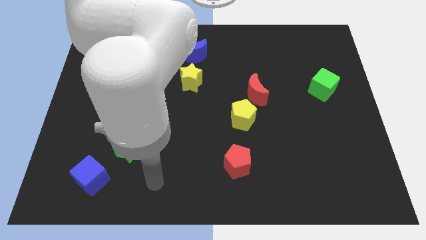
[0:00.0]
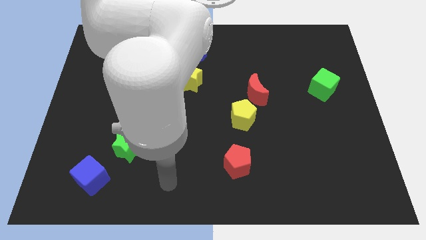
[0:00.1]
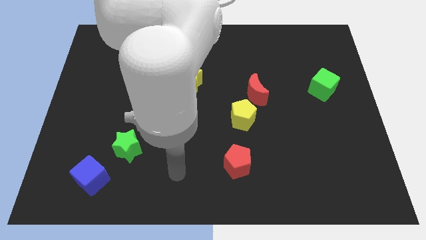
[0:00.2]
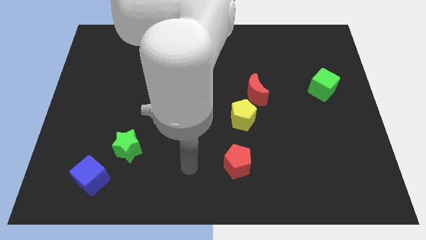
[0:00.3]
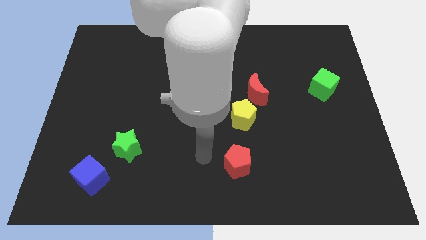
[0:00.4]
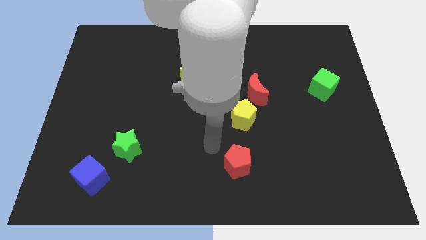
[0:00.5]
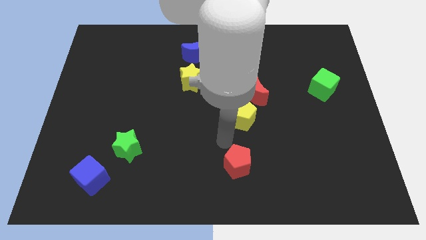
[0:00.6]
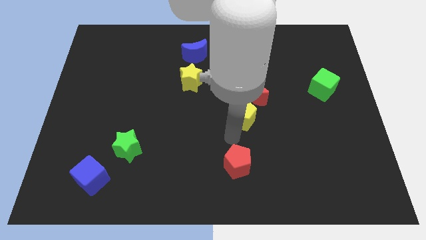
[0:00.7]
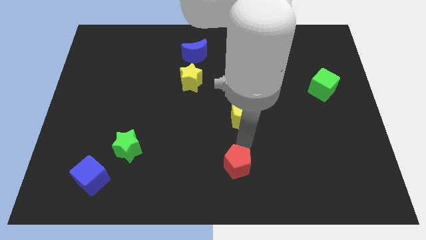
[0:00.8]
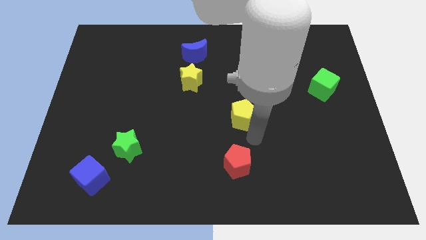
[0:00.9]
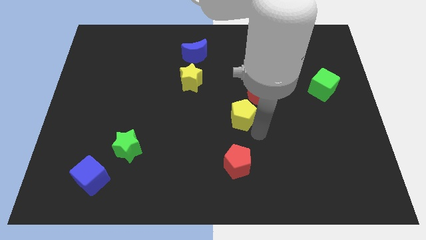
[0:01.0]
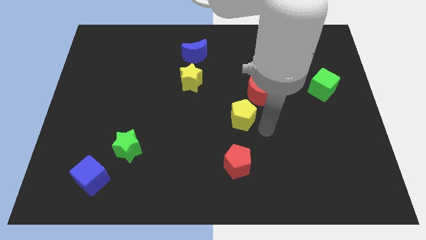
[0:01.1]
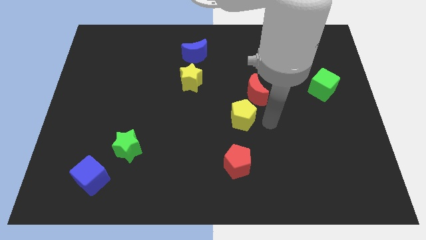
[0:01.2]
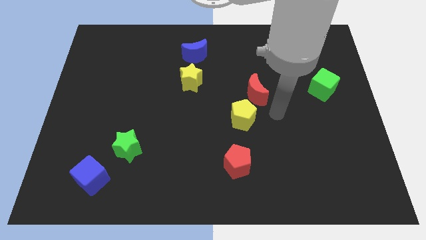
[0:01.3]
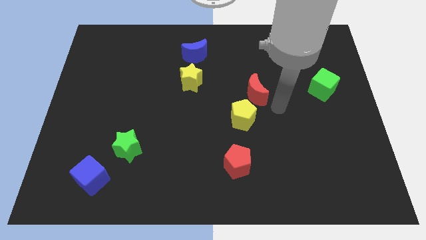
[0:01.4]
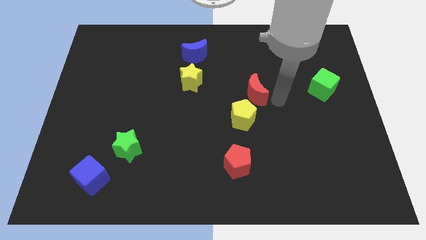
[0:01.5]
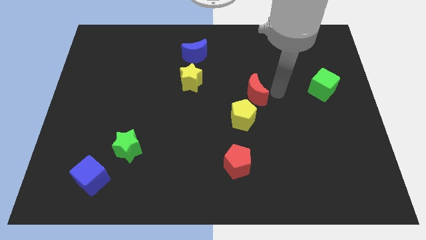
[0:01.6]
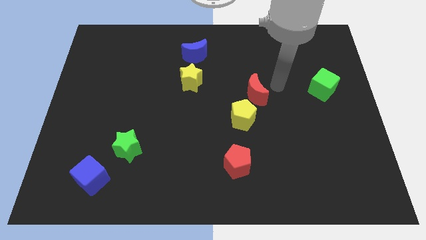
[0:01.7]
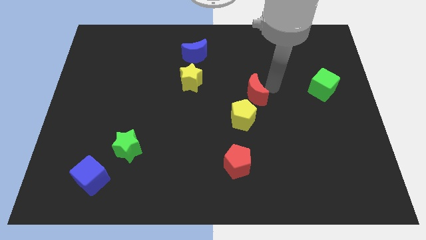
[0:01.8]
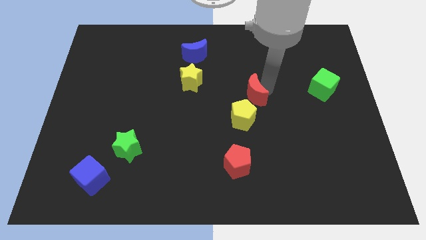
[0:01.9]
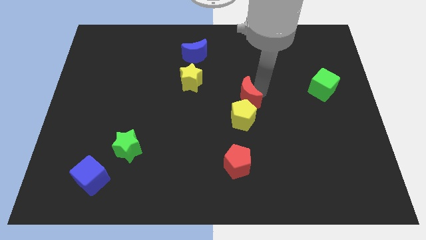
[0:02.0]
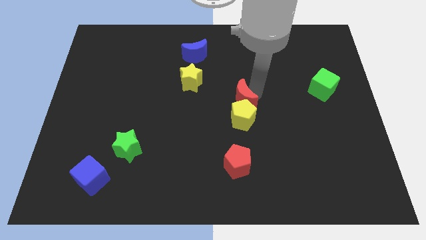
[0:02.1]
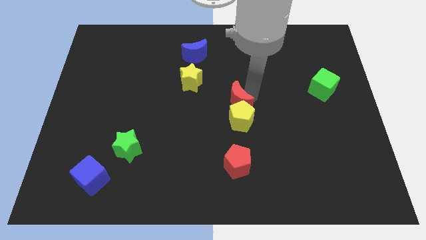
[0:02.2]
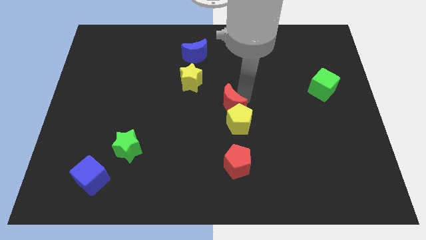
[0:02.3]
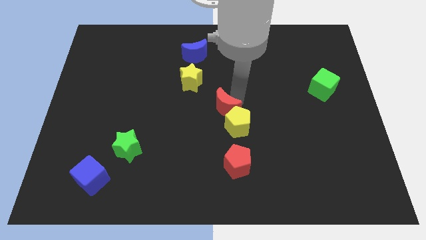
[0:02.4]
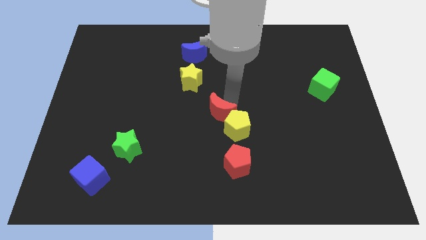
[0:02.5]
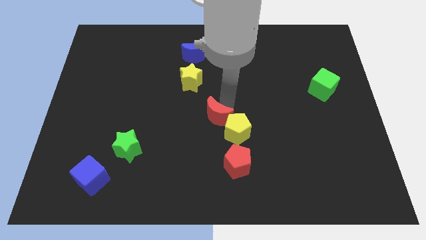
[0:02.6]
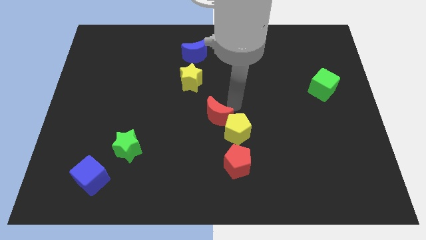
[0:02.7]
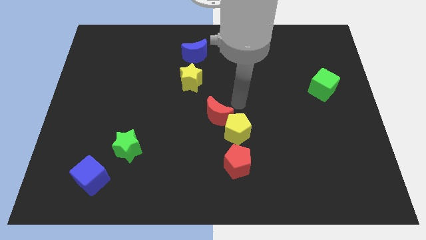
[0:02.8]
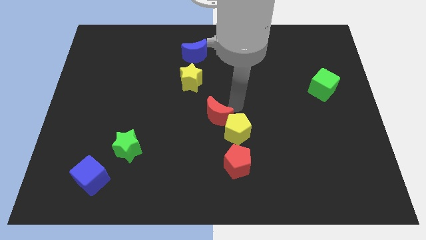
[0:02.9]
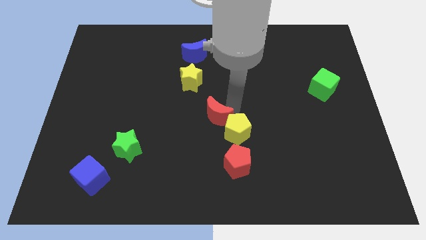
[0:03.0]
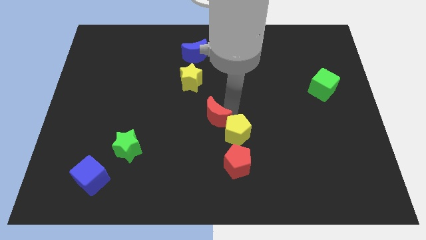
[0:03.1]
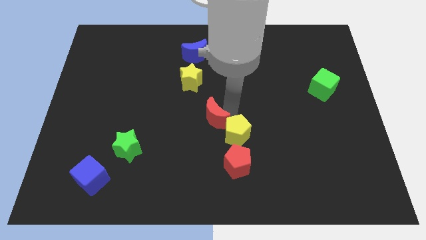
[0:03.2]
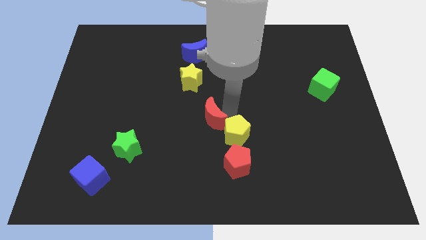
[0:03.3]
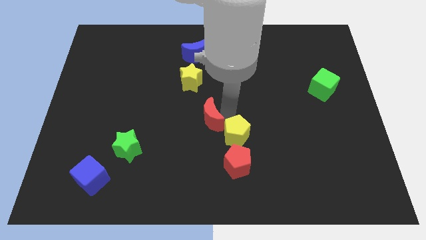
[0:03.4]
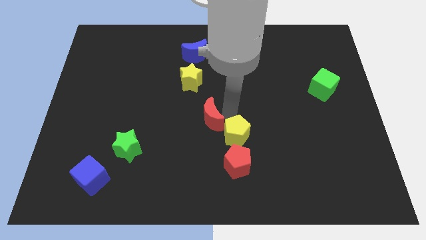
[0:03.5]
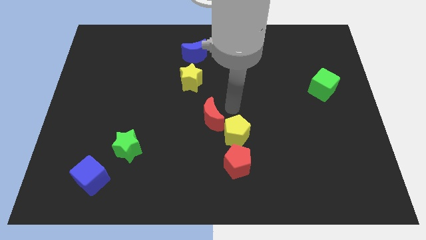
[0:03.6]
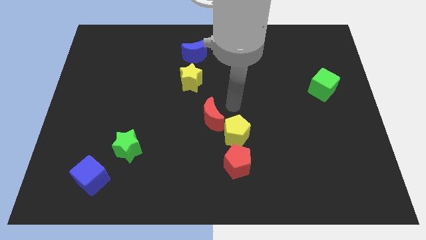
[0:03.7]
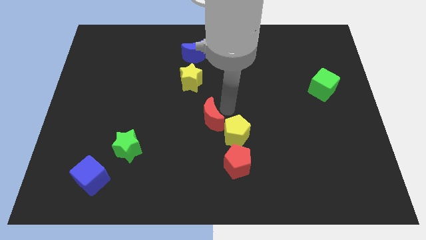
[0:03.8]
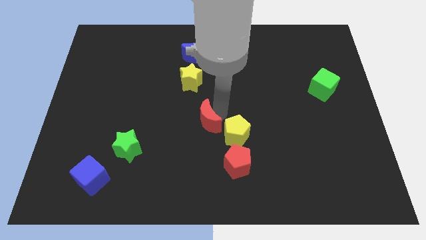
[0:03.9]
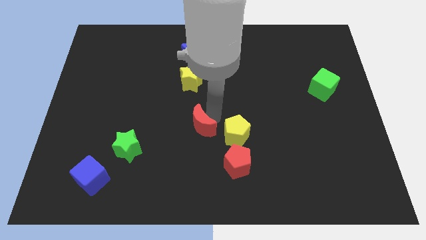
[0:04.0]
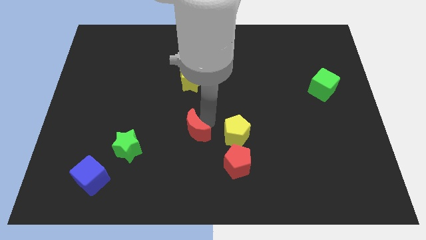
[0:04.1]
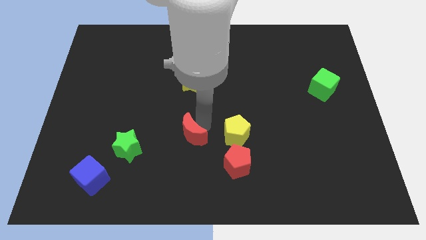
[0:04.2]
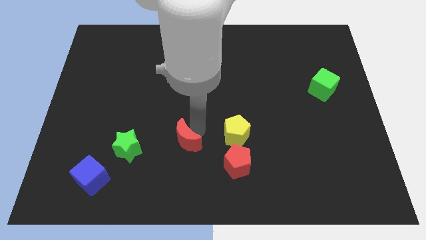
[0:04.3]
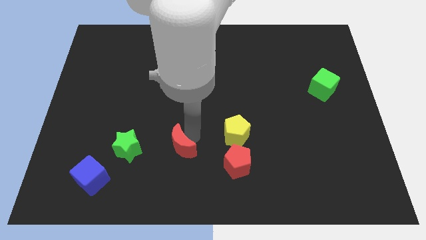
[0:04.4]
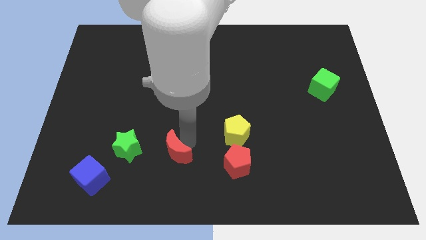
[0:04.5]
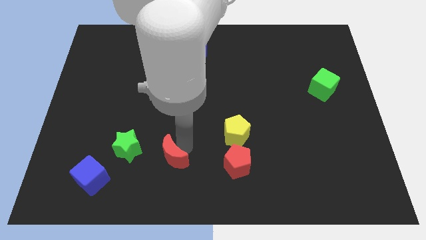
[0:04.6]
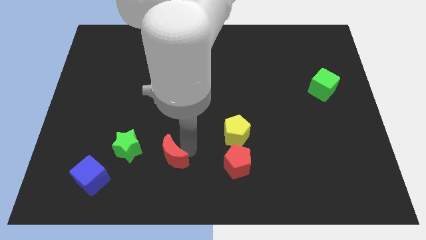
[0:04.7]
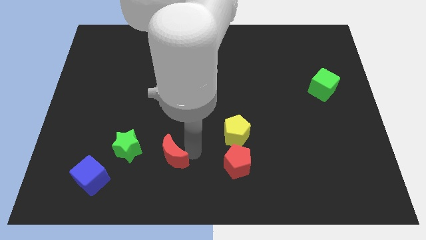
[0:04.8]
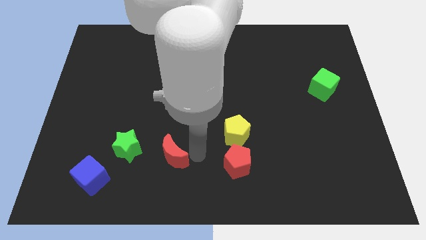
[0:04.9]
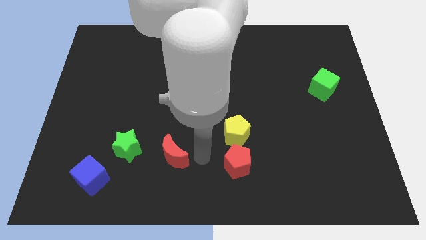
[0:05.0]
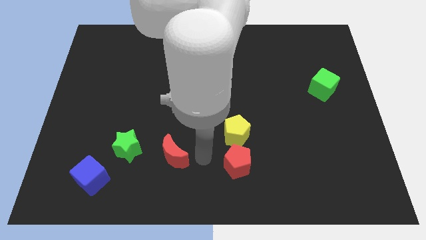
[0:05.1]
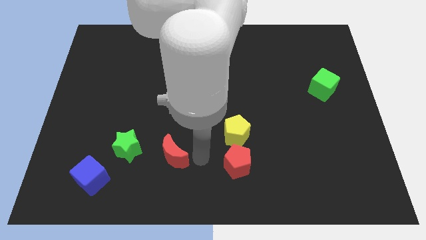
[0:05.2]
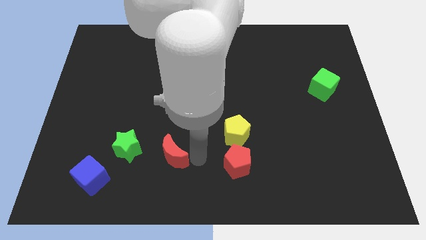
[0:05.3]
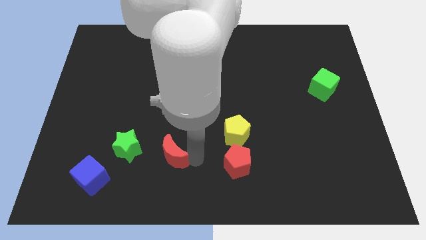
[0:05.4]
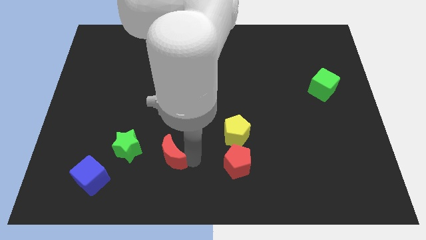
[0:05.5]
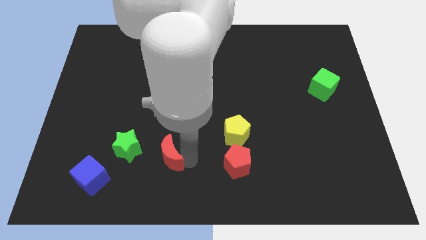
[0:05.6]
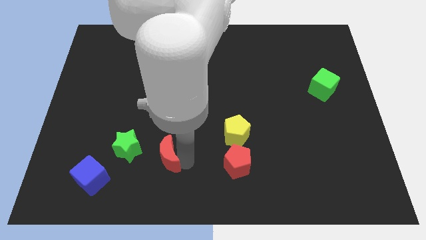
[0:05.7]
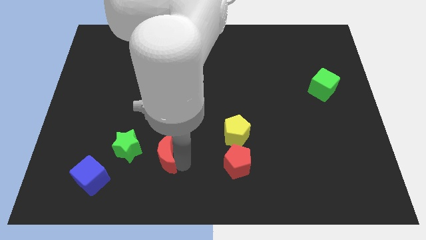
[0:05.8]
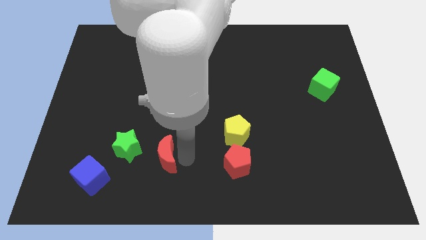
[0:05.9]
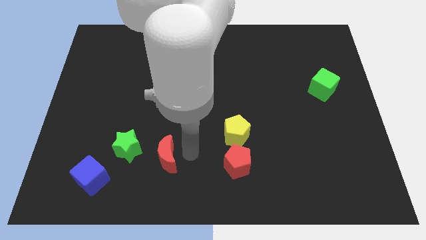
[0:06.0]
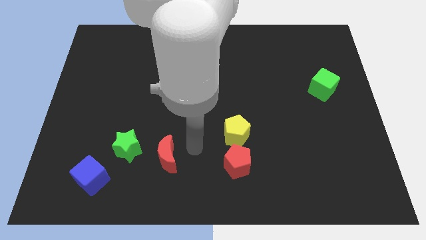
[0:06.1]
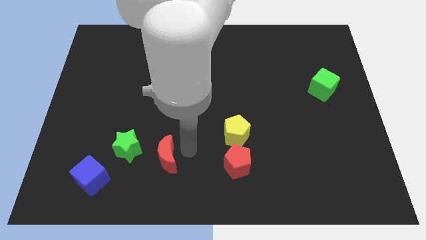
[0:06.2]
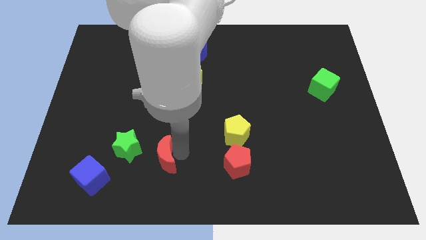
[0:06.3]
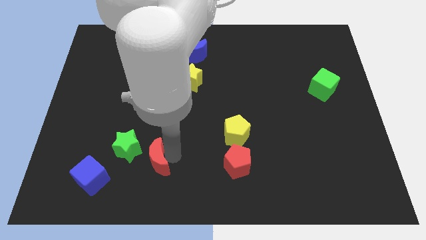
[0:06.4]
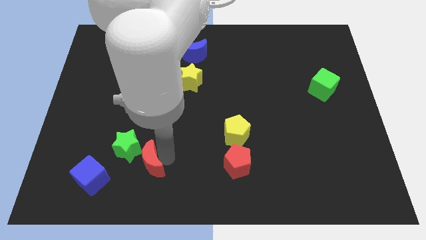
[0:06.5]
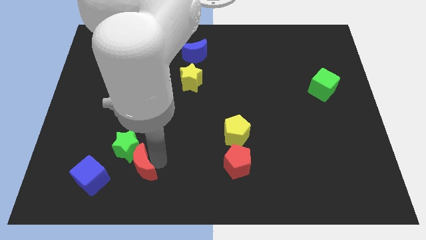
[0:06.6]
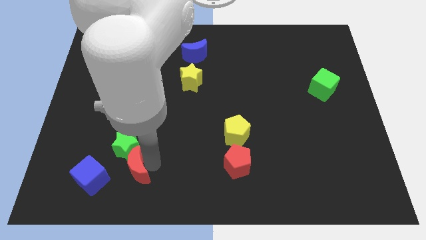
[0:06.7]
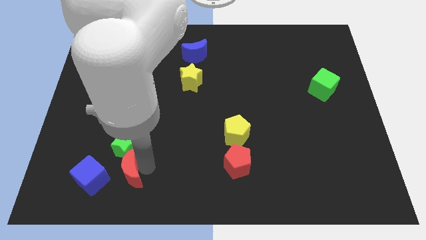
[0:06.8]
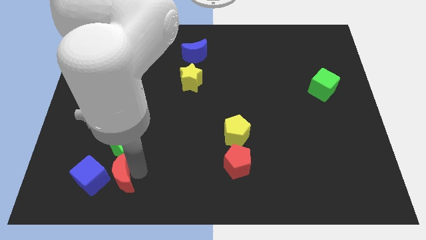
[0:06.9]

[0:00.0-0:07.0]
move the red moon towards the blue cube

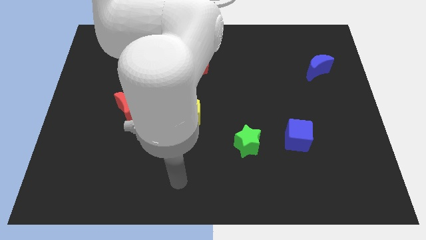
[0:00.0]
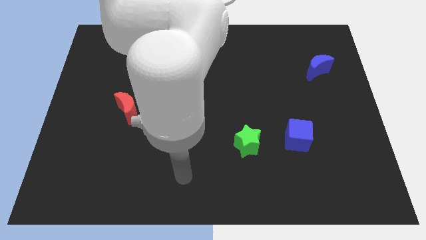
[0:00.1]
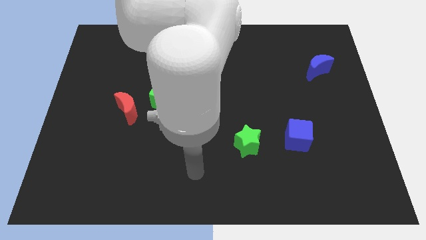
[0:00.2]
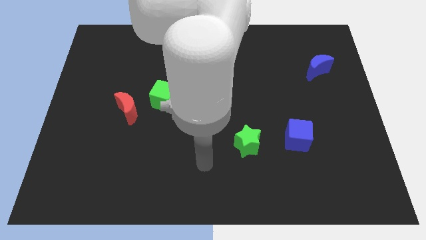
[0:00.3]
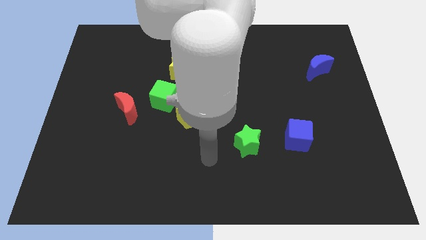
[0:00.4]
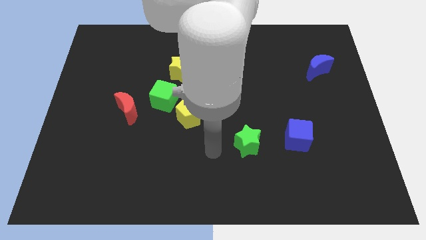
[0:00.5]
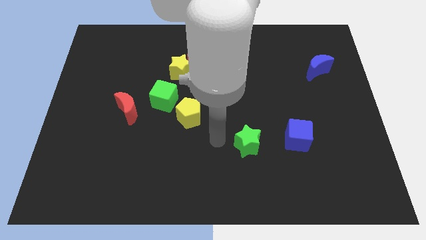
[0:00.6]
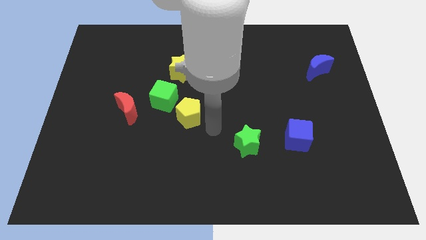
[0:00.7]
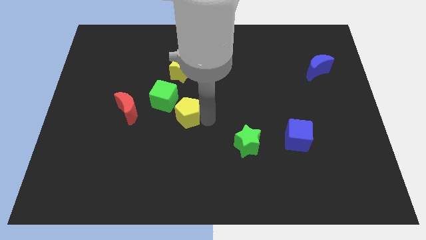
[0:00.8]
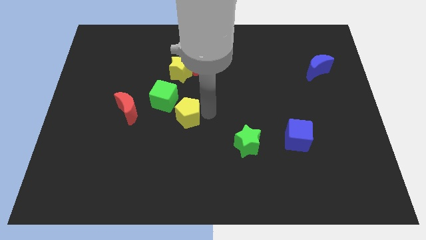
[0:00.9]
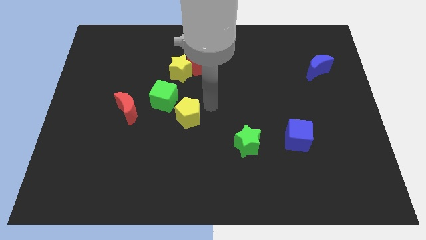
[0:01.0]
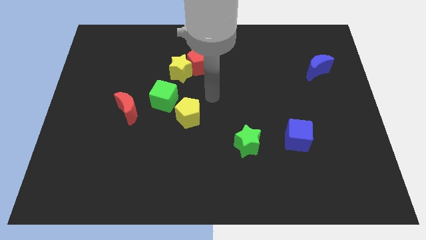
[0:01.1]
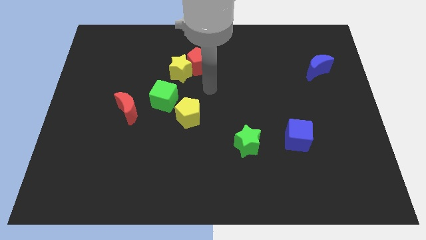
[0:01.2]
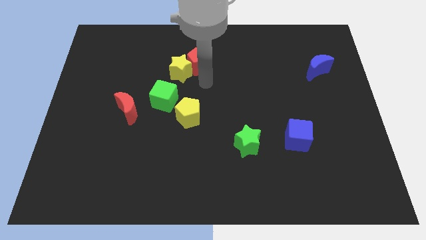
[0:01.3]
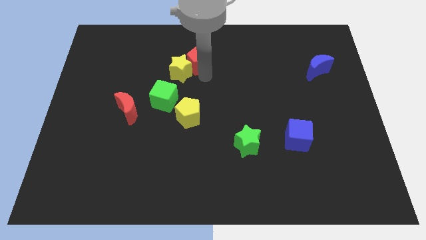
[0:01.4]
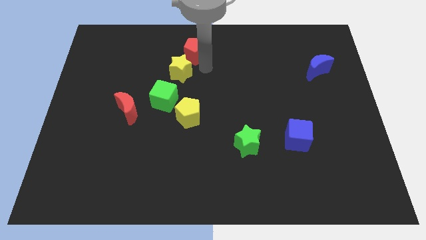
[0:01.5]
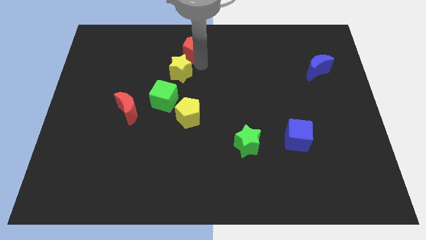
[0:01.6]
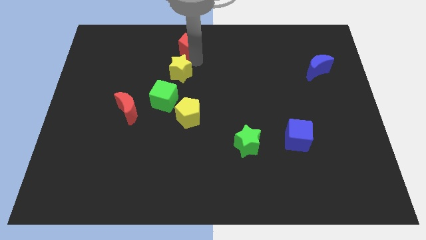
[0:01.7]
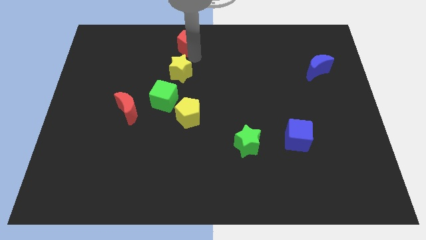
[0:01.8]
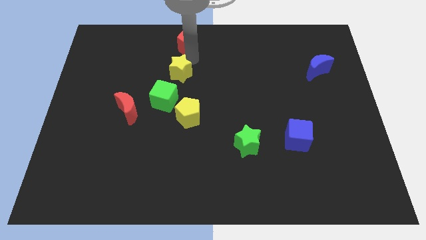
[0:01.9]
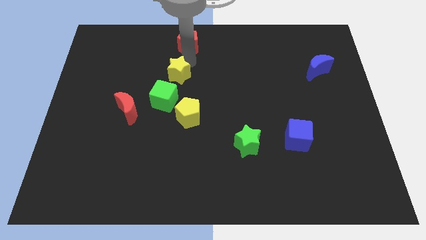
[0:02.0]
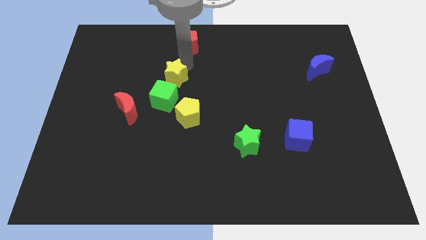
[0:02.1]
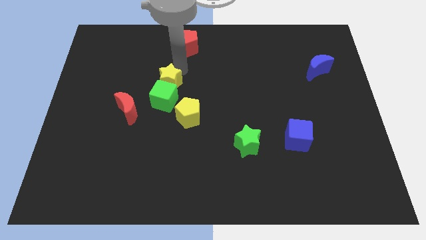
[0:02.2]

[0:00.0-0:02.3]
slide the yellow star to the green cube
